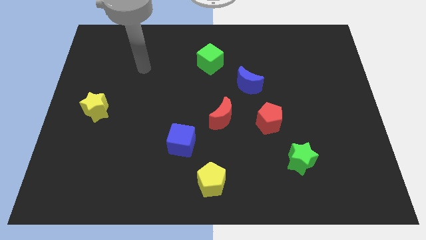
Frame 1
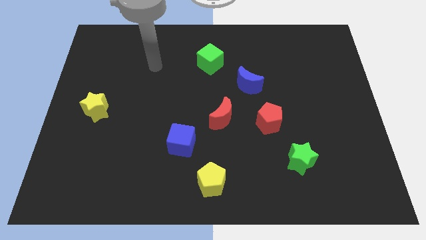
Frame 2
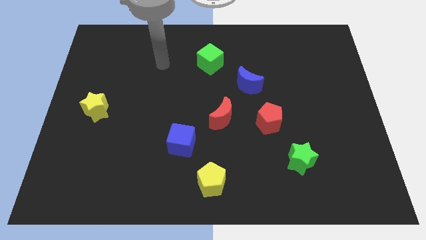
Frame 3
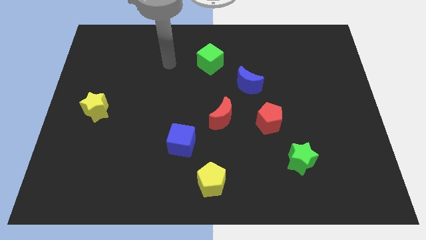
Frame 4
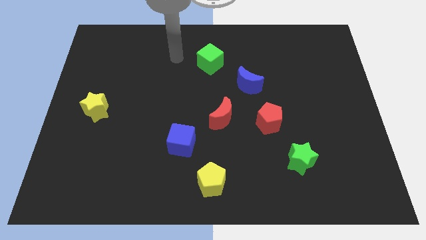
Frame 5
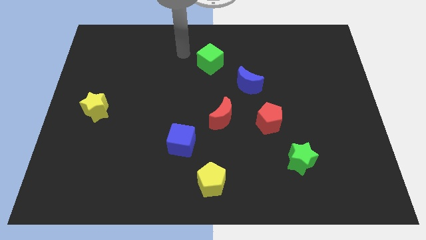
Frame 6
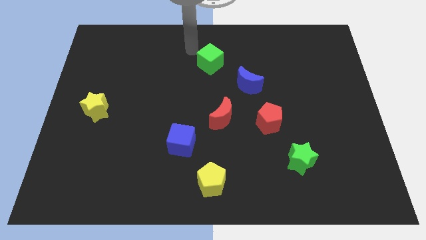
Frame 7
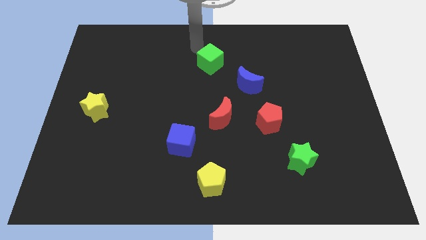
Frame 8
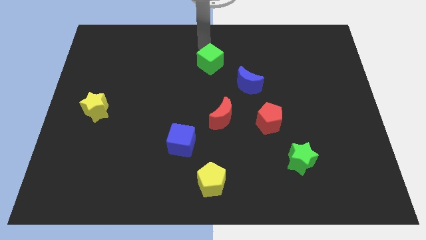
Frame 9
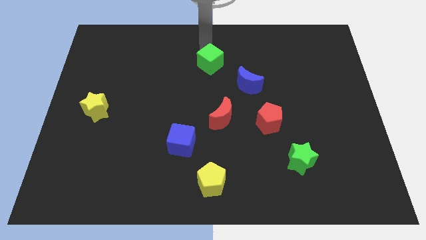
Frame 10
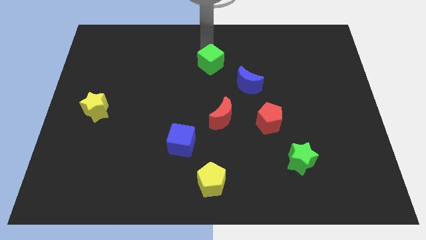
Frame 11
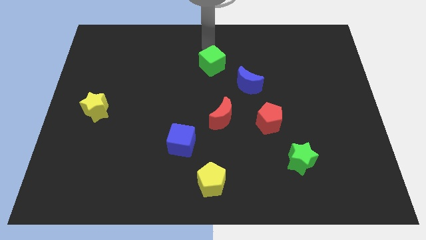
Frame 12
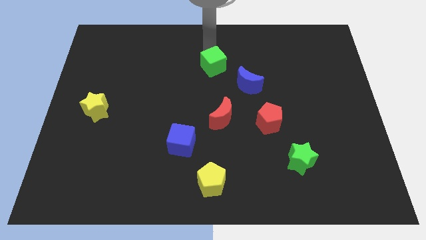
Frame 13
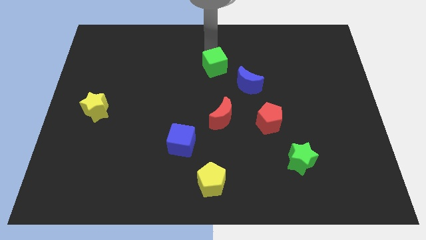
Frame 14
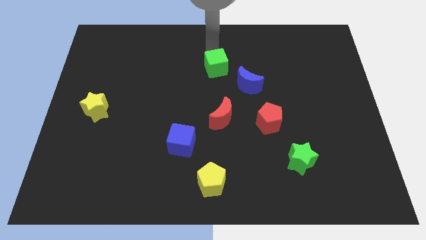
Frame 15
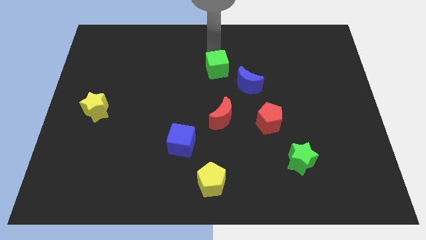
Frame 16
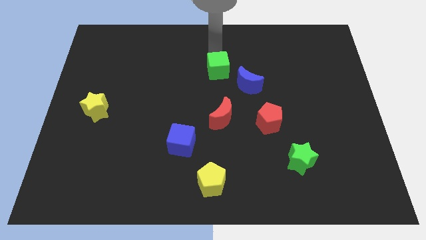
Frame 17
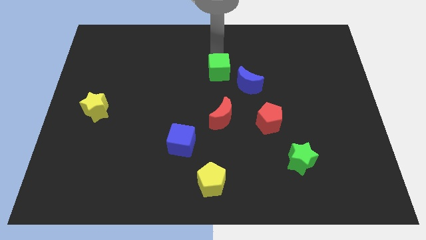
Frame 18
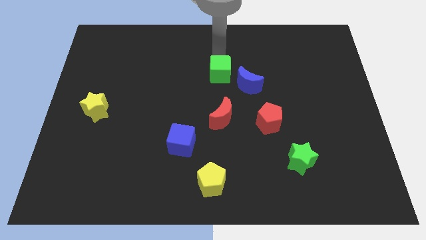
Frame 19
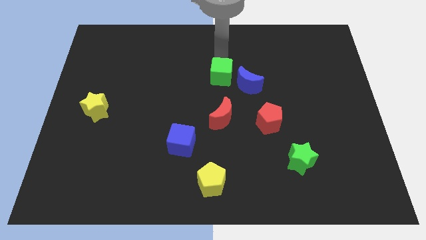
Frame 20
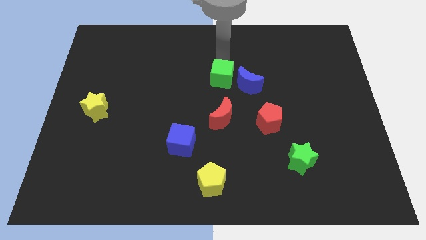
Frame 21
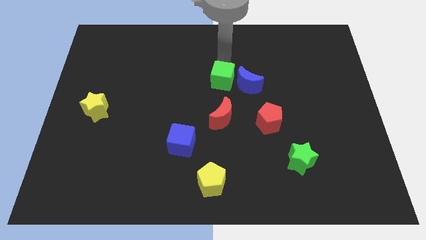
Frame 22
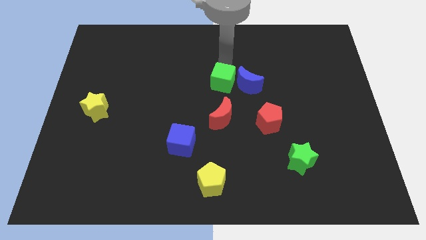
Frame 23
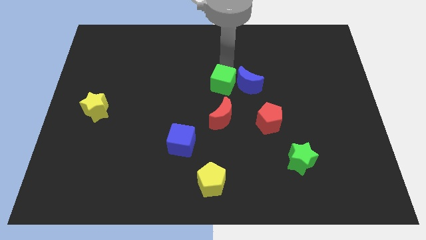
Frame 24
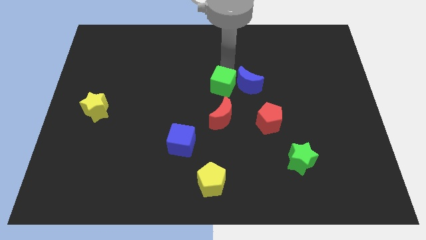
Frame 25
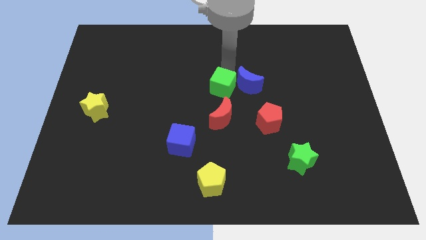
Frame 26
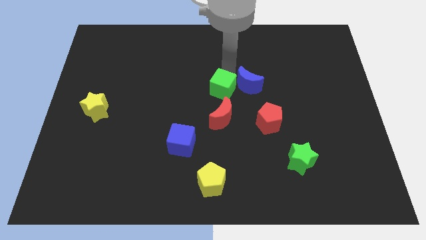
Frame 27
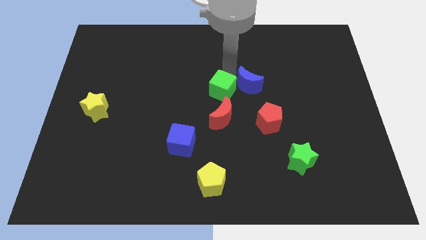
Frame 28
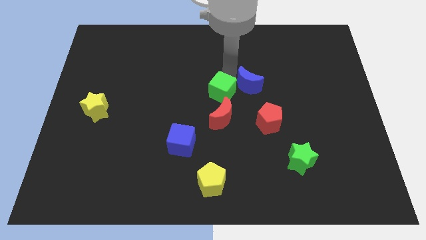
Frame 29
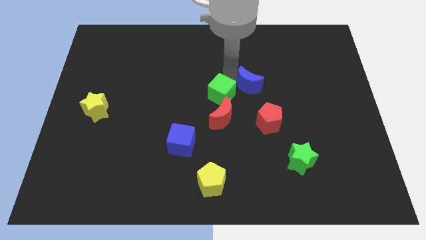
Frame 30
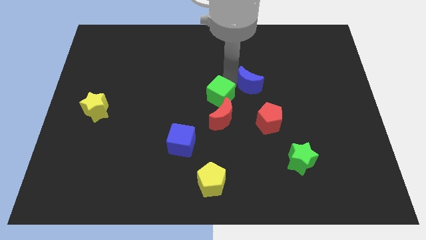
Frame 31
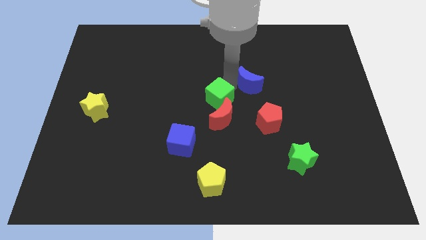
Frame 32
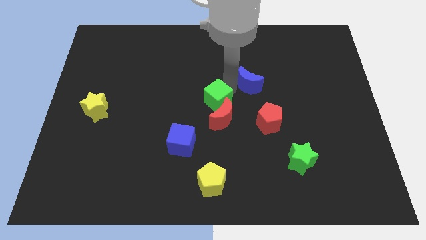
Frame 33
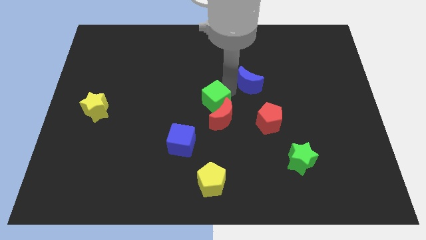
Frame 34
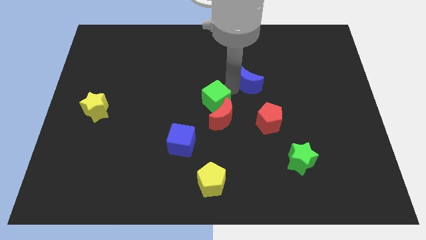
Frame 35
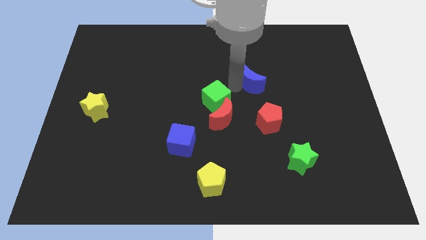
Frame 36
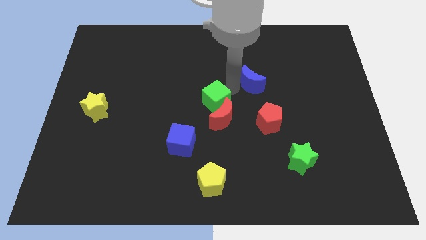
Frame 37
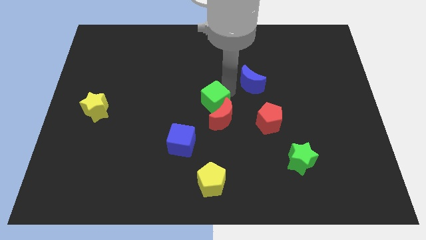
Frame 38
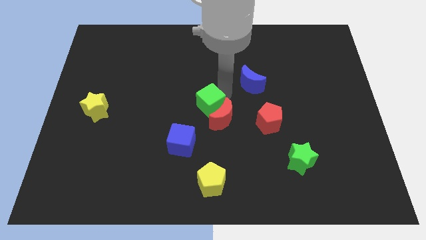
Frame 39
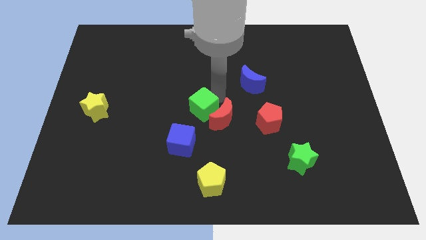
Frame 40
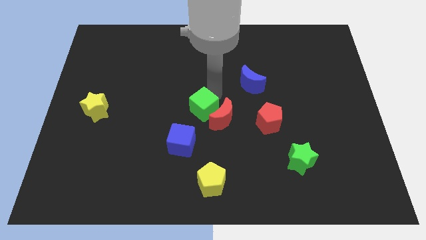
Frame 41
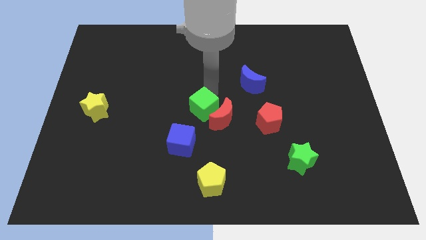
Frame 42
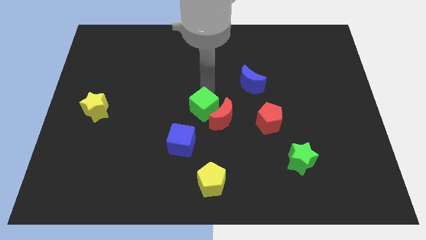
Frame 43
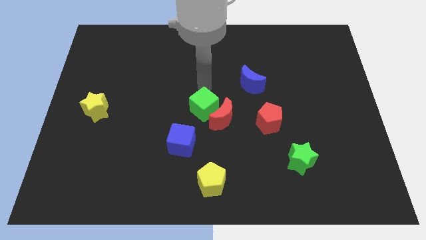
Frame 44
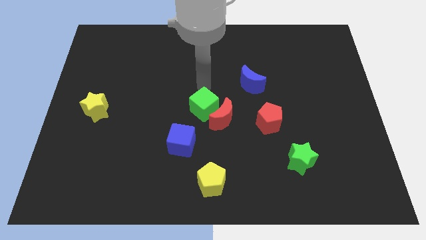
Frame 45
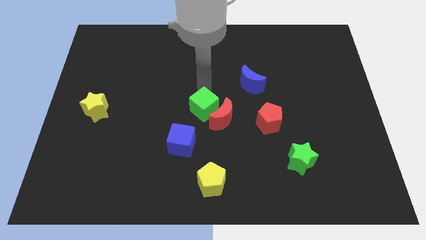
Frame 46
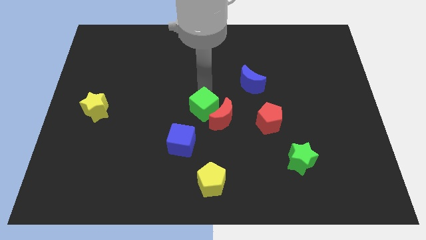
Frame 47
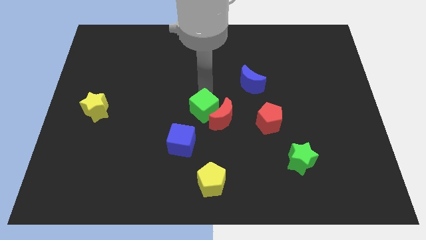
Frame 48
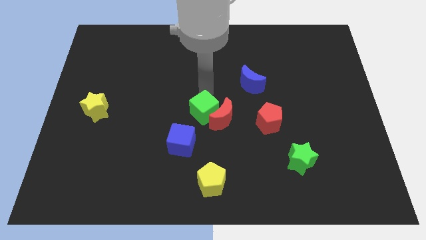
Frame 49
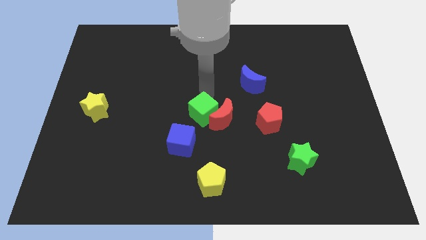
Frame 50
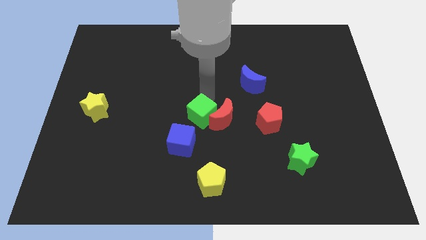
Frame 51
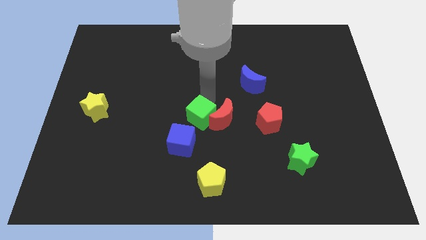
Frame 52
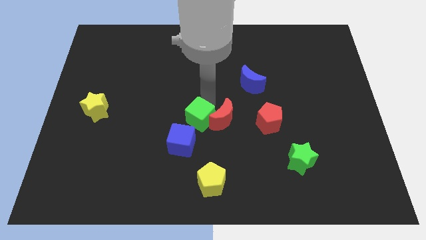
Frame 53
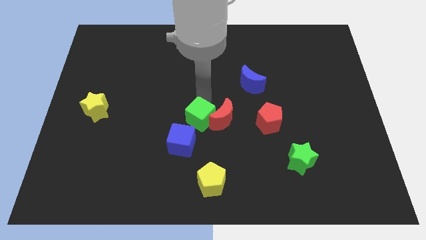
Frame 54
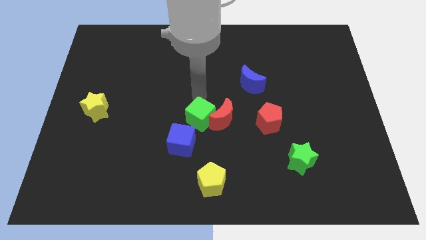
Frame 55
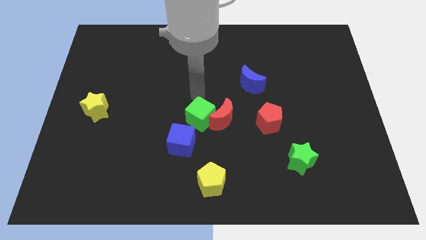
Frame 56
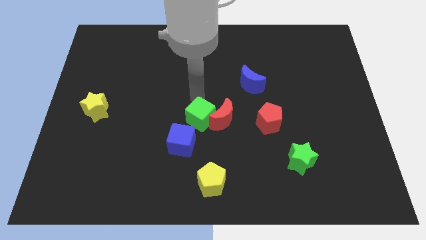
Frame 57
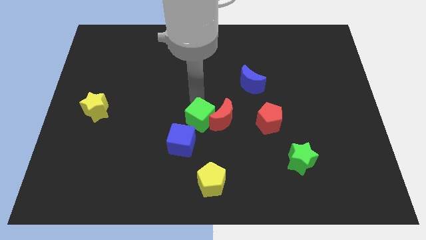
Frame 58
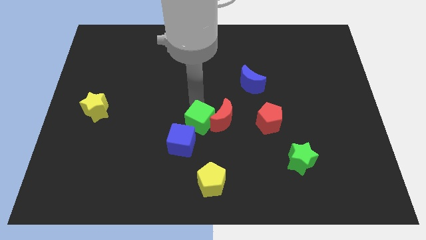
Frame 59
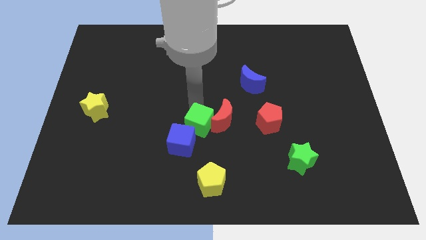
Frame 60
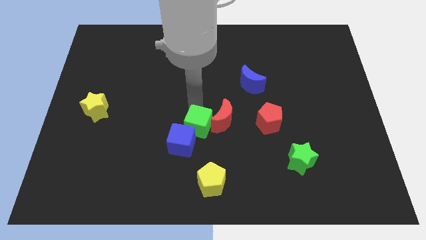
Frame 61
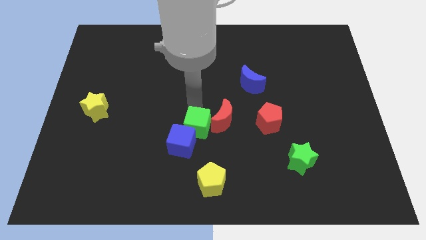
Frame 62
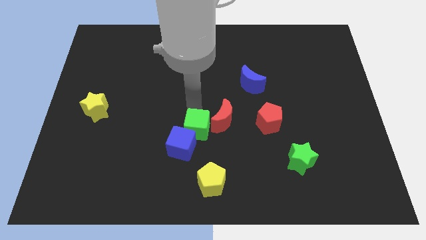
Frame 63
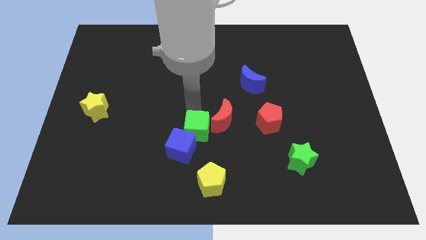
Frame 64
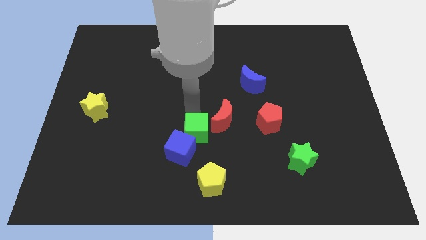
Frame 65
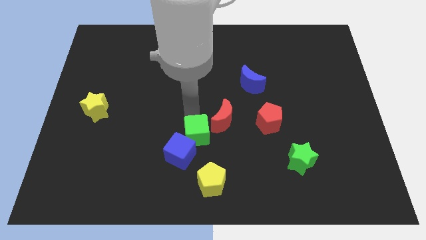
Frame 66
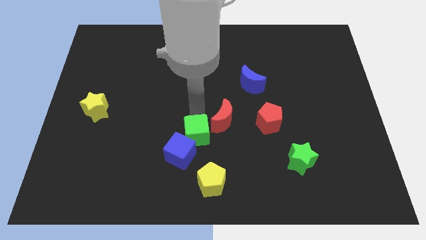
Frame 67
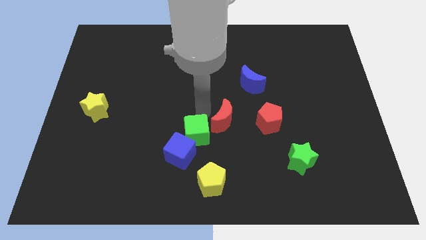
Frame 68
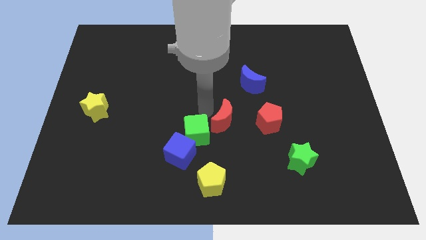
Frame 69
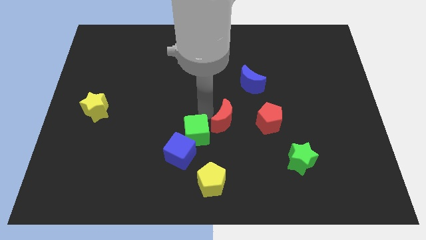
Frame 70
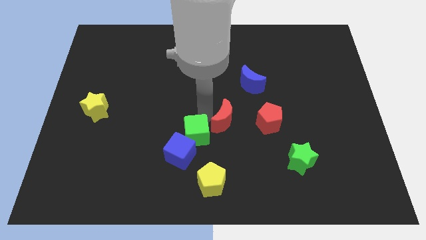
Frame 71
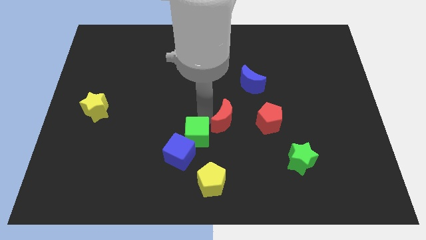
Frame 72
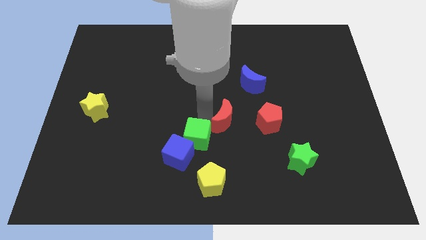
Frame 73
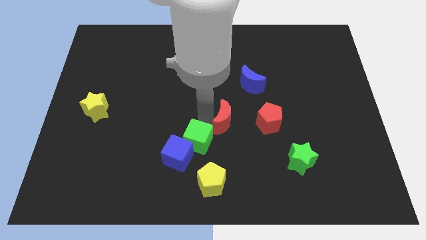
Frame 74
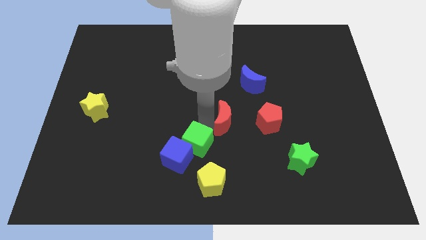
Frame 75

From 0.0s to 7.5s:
slide the green cube to the top left side of the yellow pentagon
